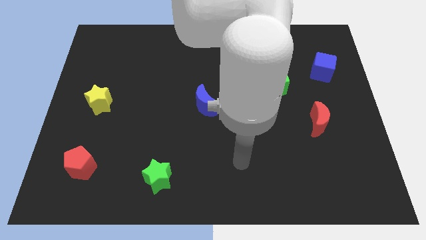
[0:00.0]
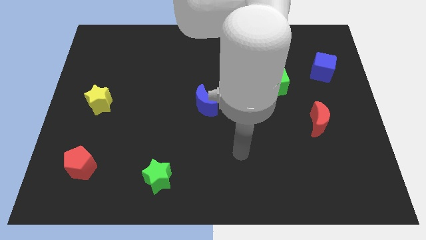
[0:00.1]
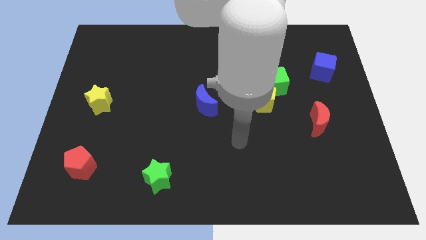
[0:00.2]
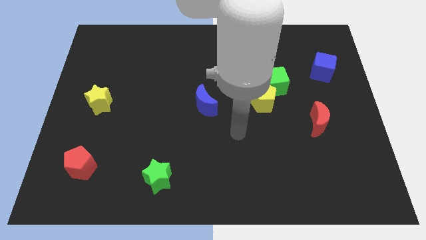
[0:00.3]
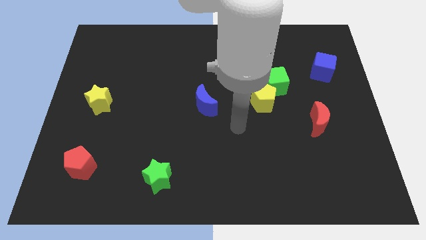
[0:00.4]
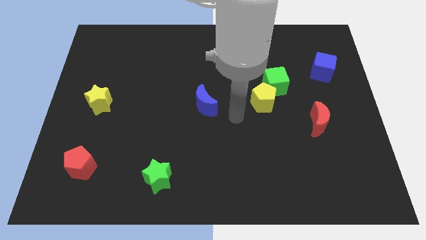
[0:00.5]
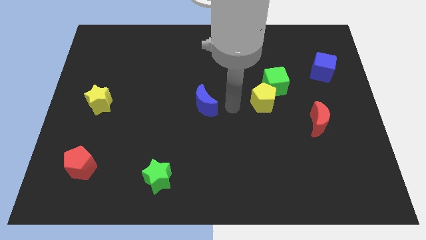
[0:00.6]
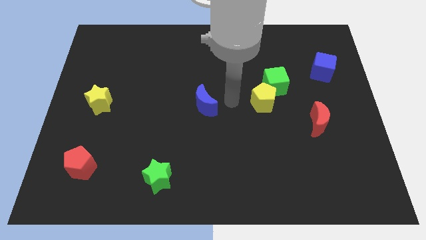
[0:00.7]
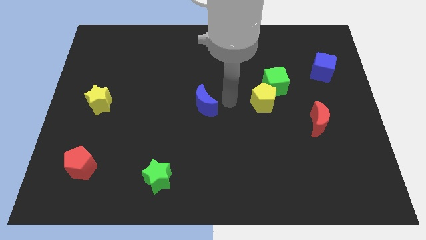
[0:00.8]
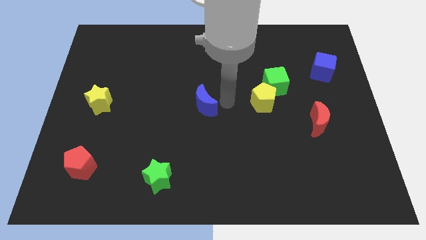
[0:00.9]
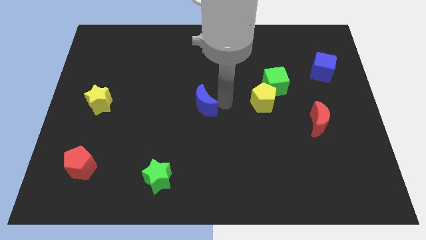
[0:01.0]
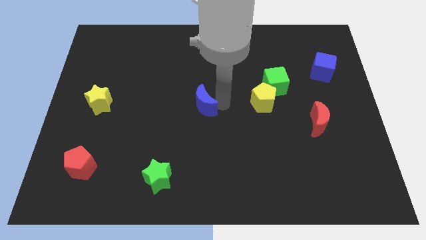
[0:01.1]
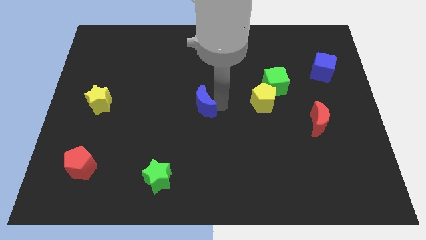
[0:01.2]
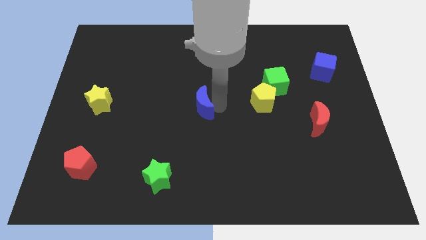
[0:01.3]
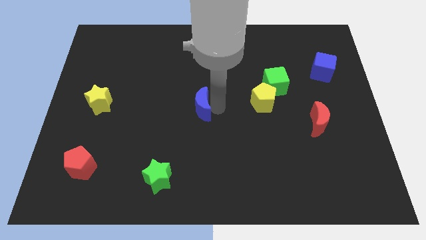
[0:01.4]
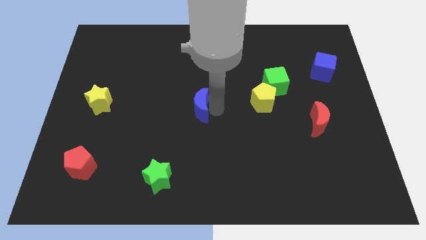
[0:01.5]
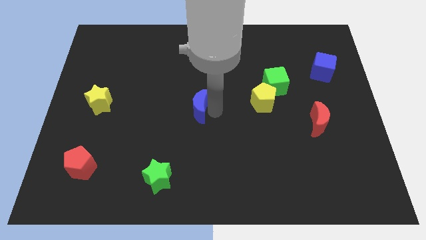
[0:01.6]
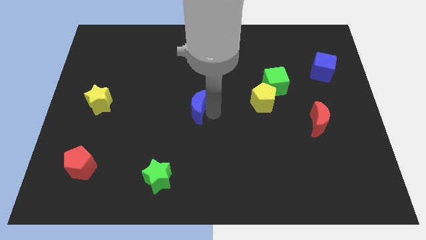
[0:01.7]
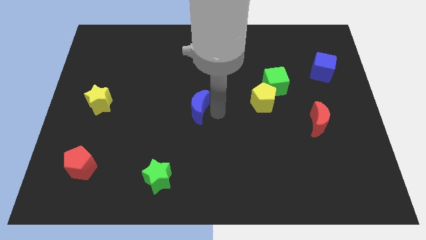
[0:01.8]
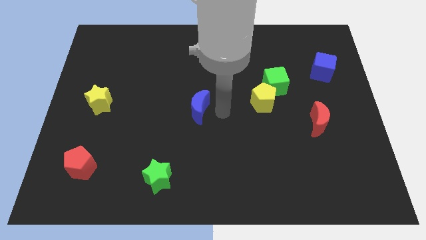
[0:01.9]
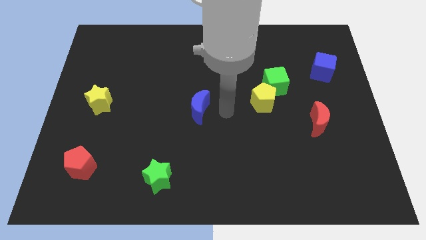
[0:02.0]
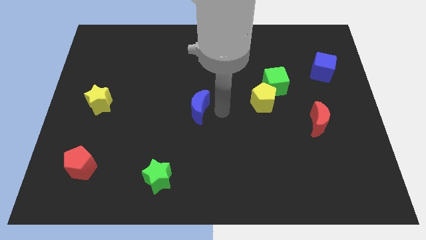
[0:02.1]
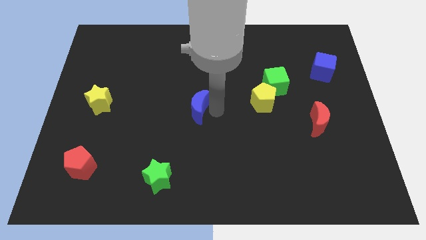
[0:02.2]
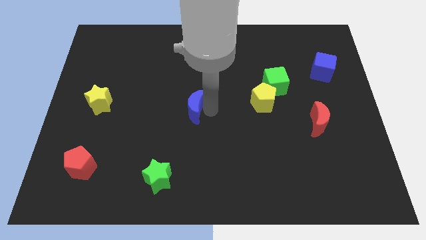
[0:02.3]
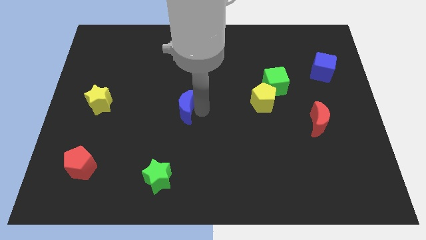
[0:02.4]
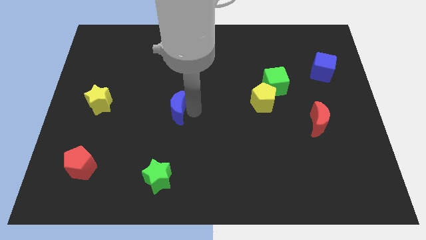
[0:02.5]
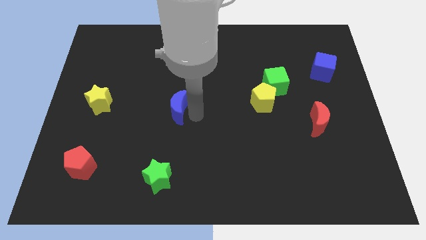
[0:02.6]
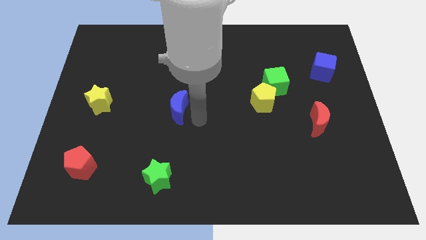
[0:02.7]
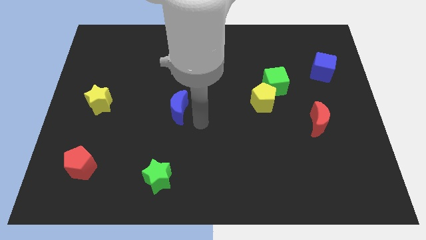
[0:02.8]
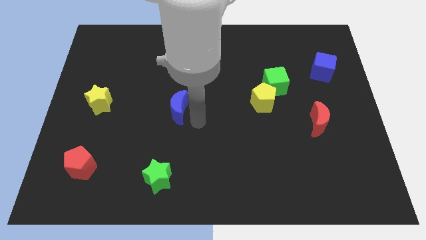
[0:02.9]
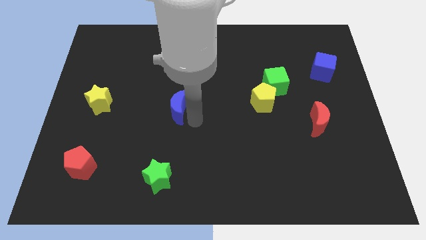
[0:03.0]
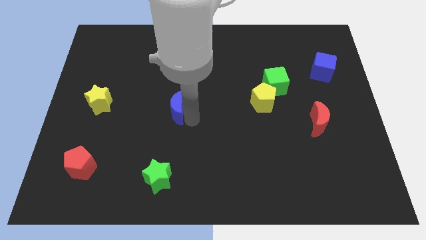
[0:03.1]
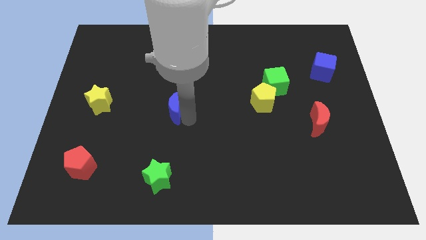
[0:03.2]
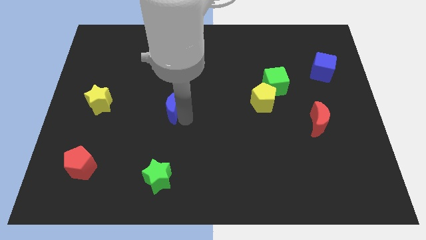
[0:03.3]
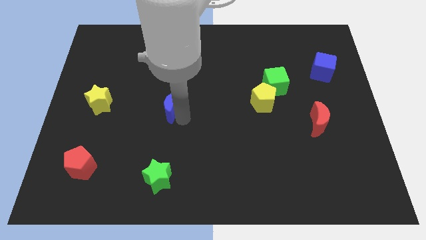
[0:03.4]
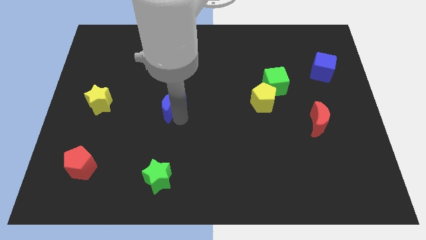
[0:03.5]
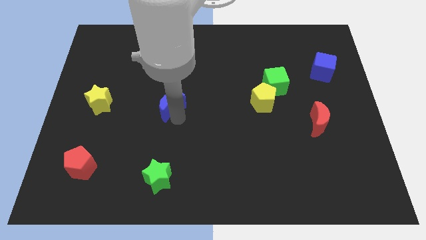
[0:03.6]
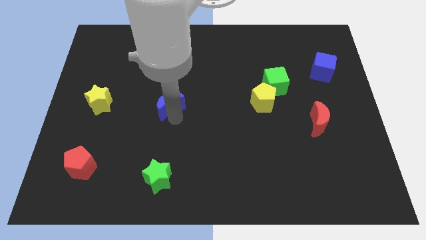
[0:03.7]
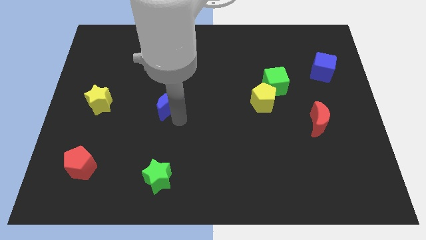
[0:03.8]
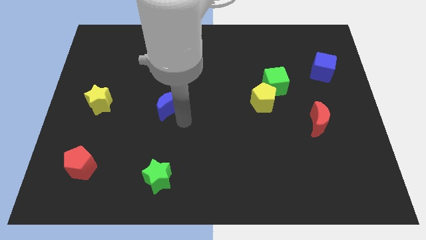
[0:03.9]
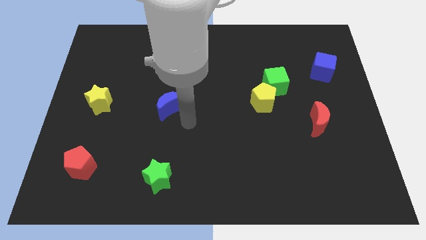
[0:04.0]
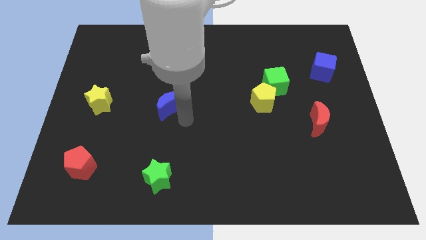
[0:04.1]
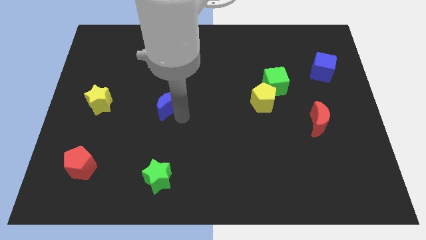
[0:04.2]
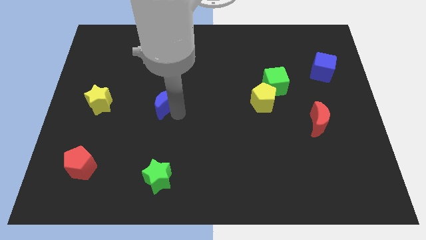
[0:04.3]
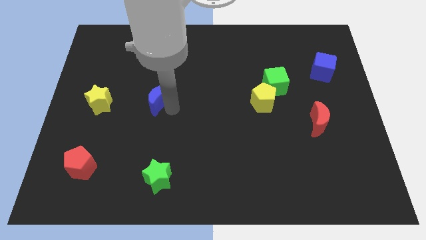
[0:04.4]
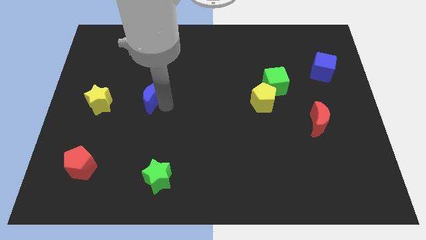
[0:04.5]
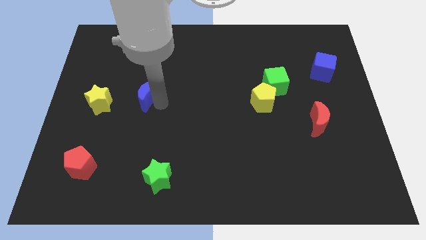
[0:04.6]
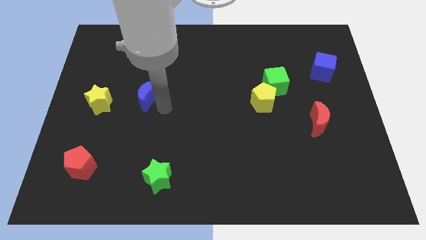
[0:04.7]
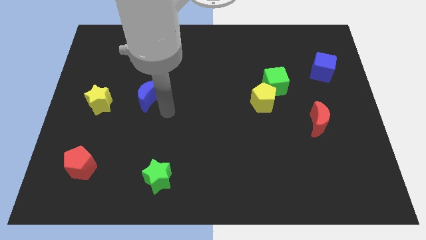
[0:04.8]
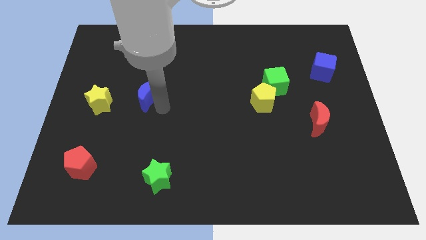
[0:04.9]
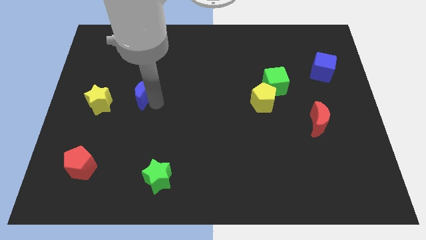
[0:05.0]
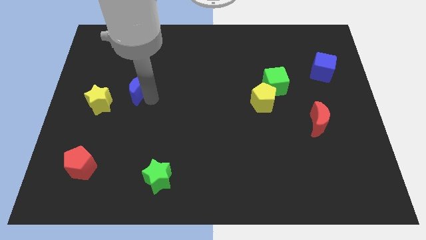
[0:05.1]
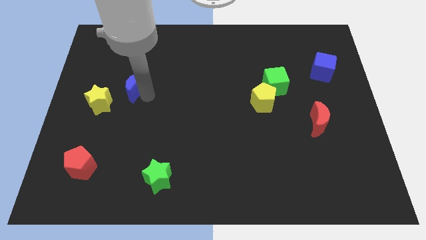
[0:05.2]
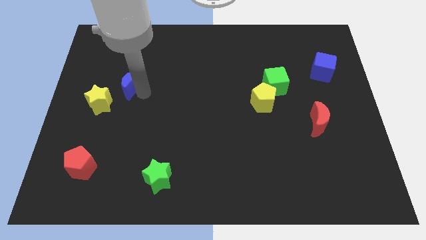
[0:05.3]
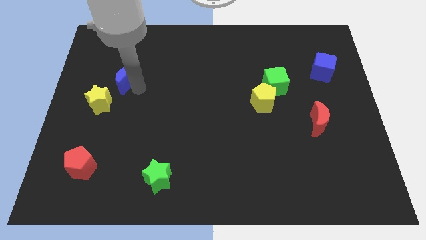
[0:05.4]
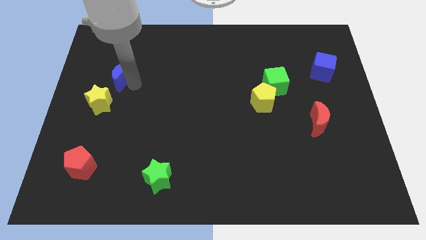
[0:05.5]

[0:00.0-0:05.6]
slide the blue moon above the yellow star

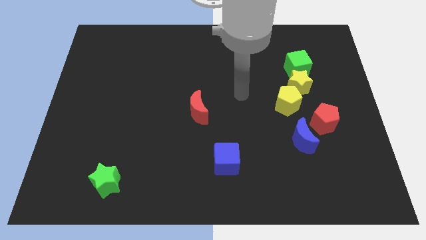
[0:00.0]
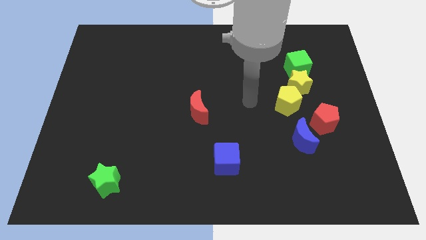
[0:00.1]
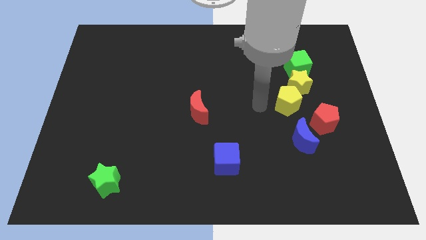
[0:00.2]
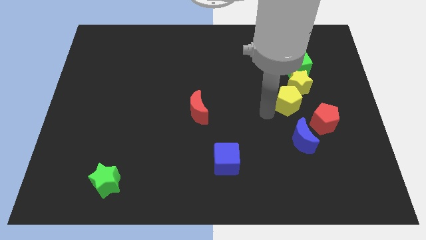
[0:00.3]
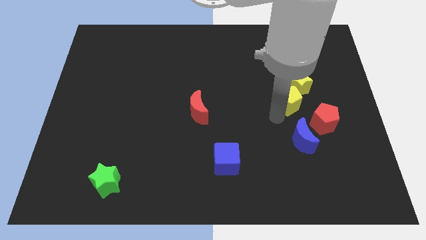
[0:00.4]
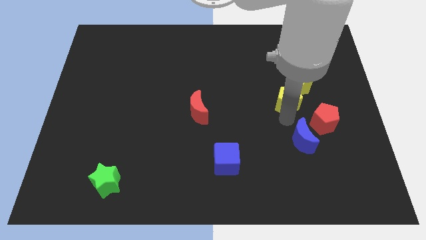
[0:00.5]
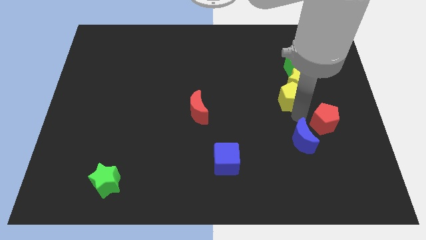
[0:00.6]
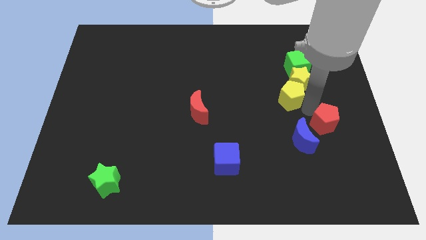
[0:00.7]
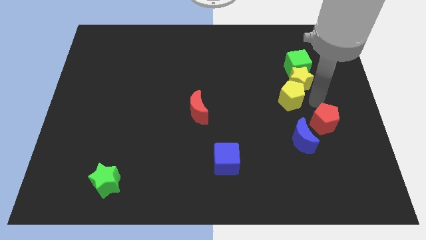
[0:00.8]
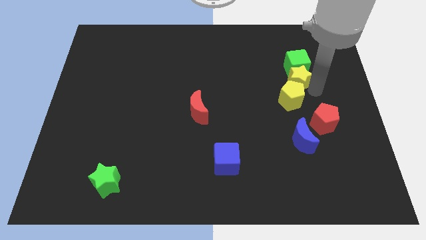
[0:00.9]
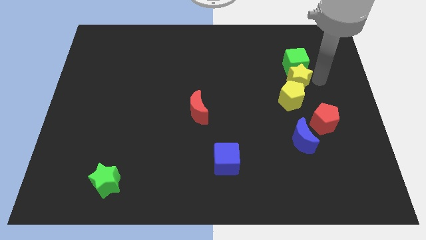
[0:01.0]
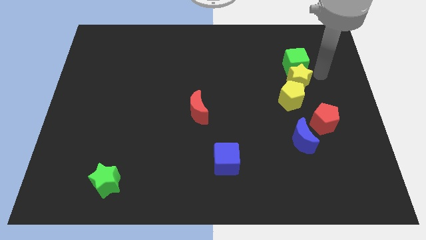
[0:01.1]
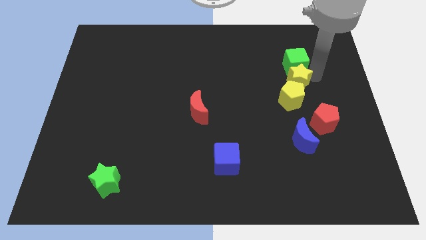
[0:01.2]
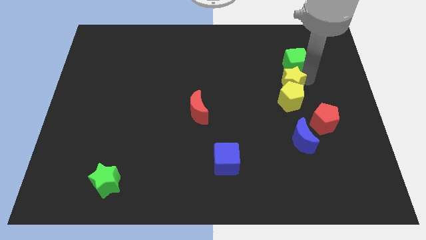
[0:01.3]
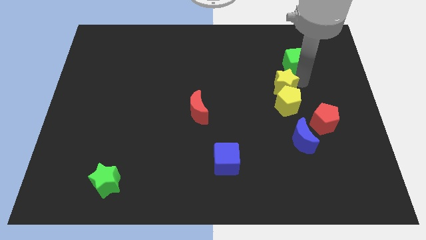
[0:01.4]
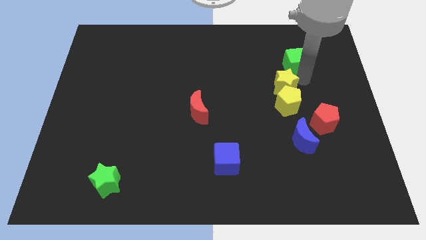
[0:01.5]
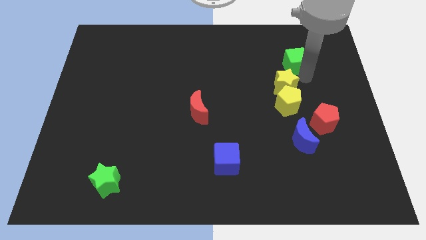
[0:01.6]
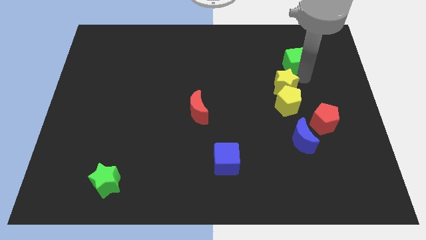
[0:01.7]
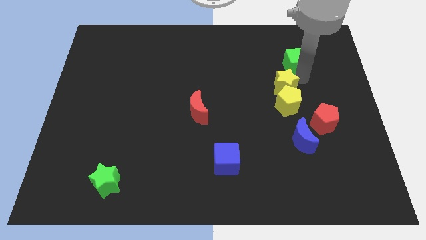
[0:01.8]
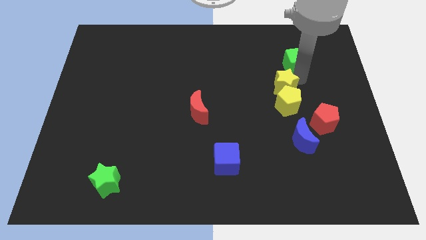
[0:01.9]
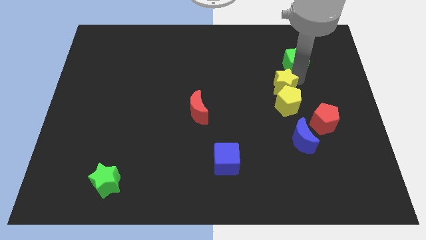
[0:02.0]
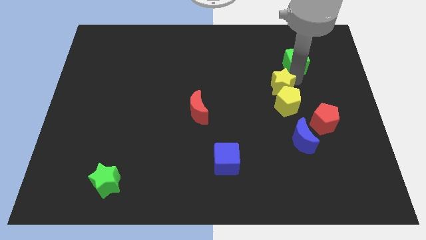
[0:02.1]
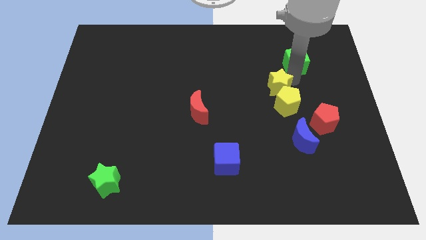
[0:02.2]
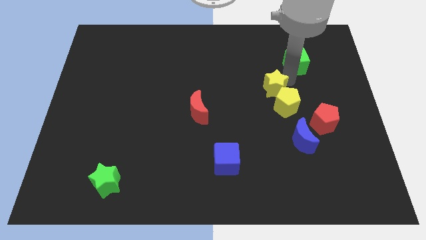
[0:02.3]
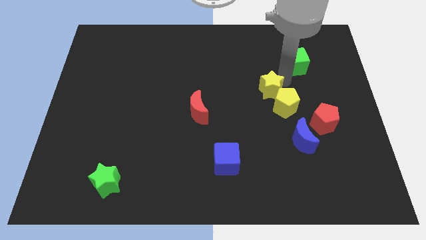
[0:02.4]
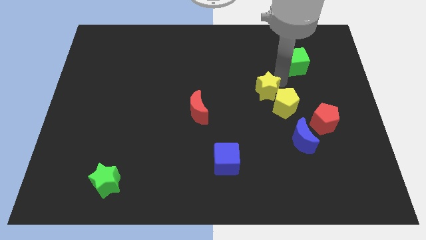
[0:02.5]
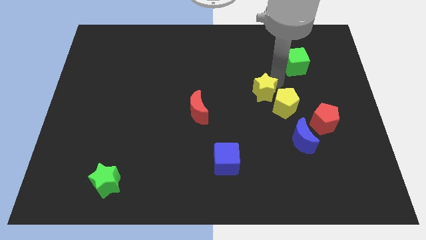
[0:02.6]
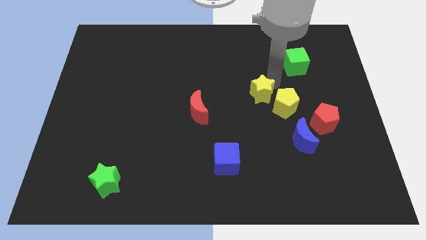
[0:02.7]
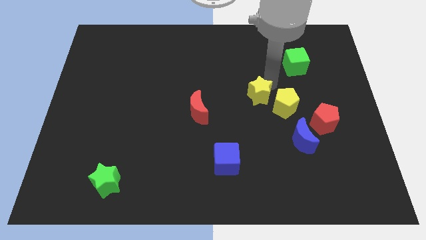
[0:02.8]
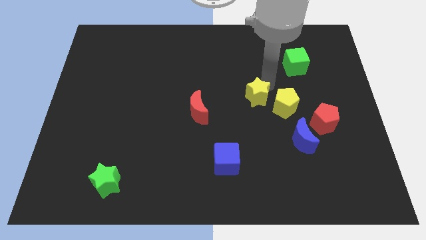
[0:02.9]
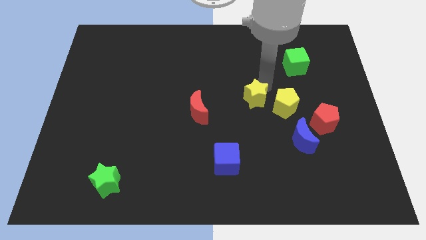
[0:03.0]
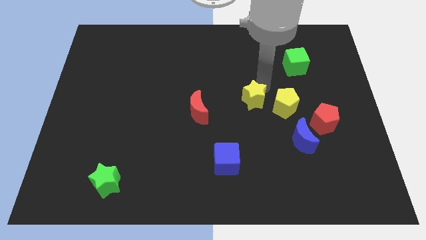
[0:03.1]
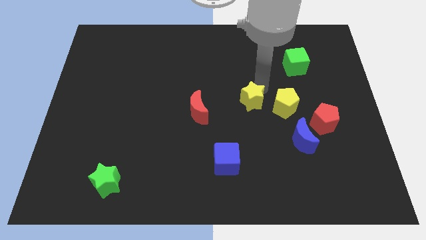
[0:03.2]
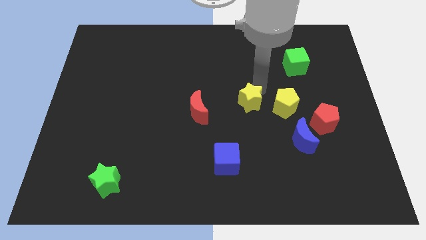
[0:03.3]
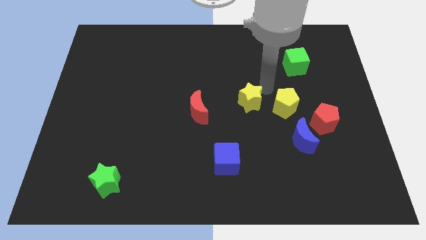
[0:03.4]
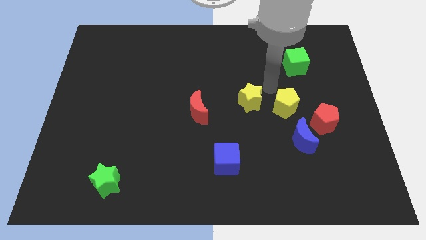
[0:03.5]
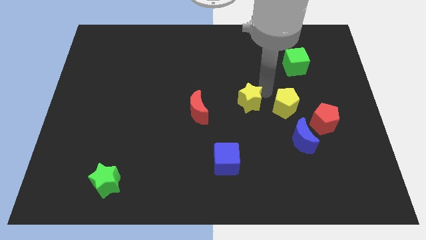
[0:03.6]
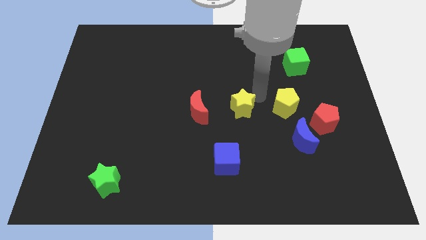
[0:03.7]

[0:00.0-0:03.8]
push the yellow star to the top side of the blue cube
